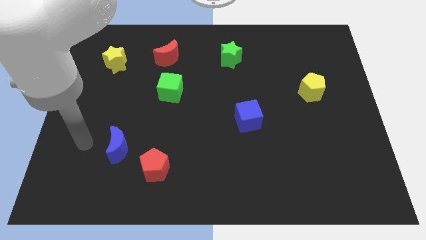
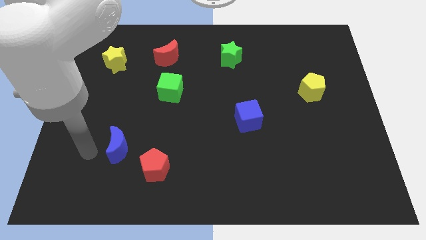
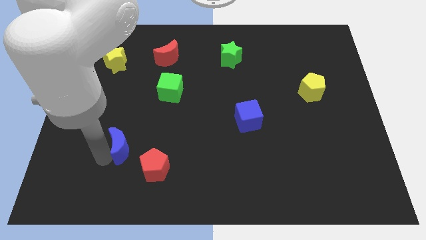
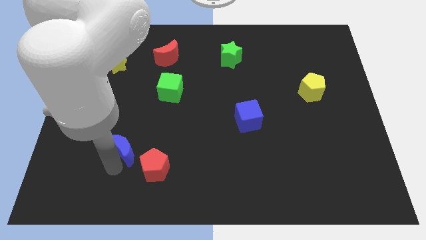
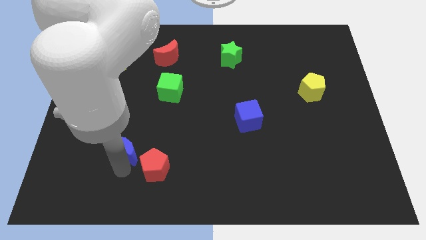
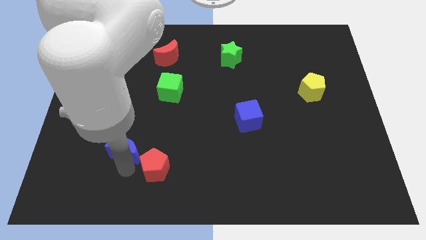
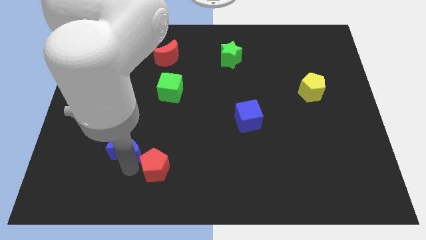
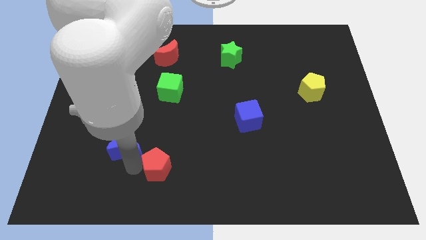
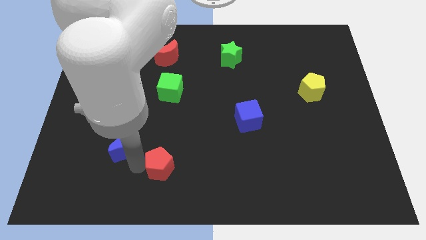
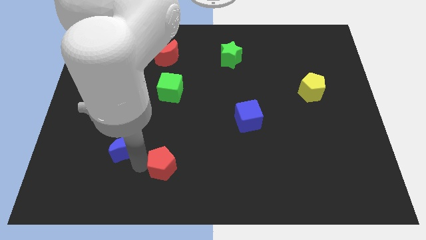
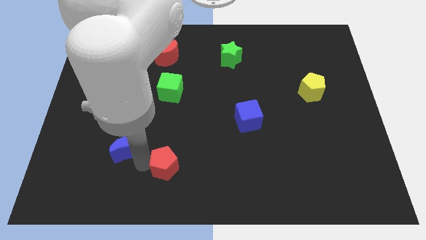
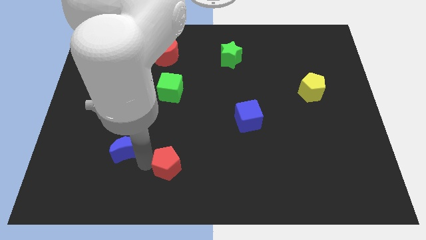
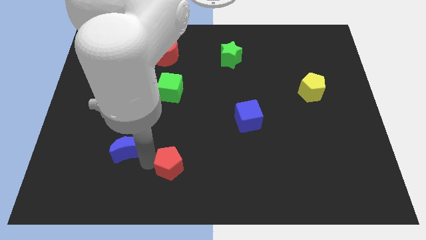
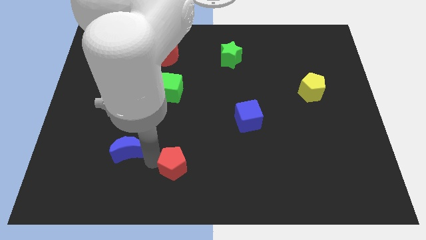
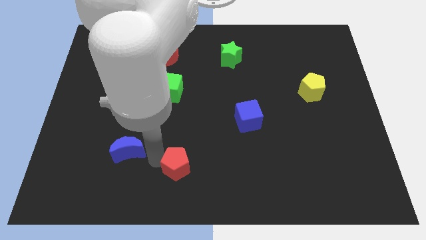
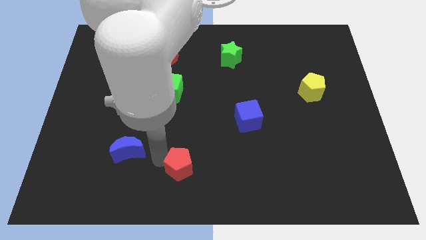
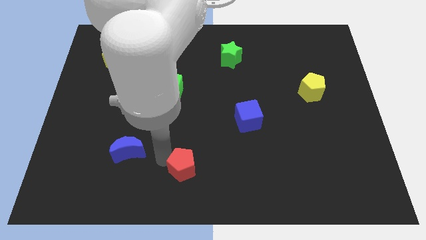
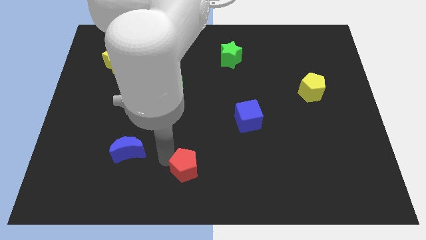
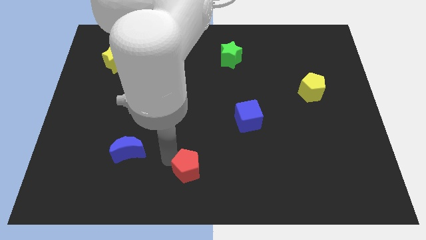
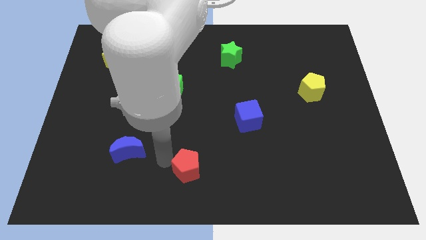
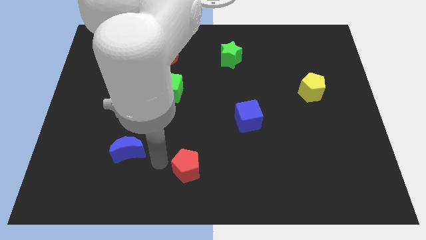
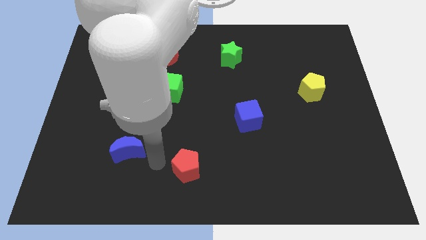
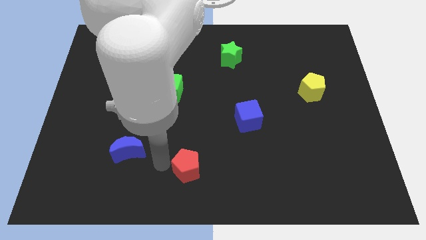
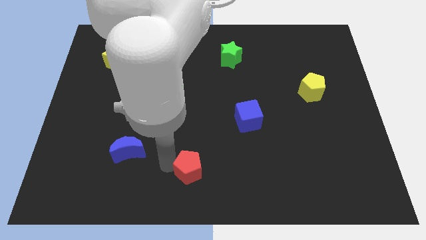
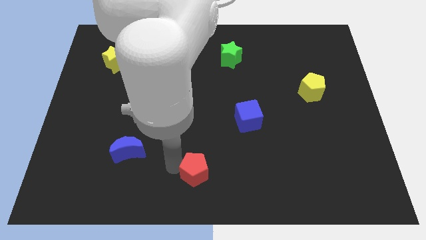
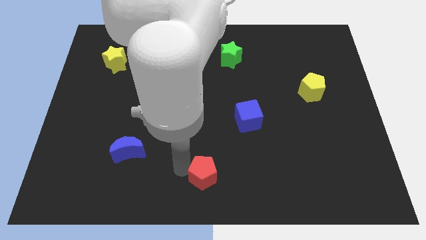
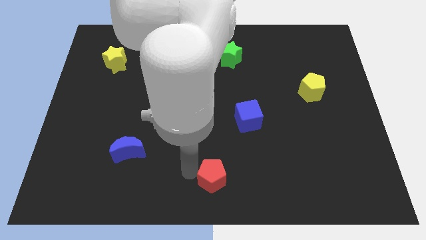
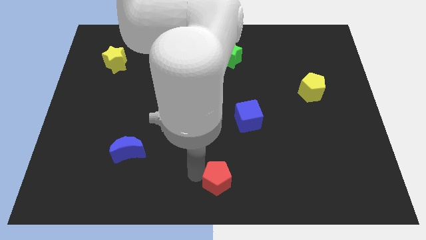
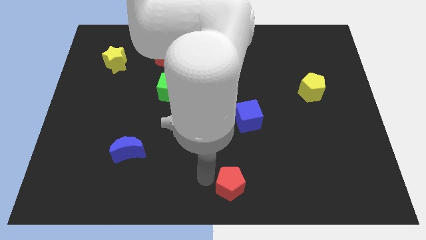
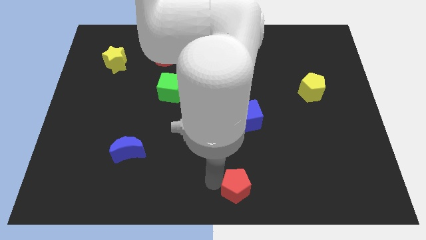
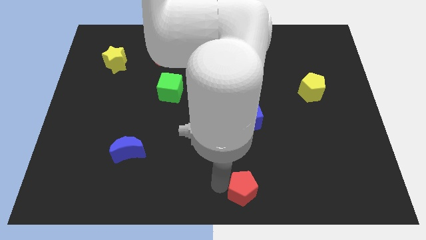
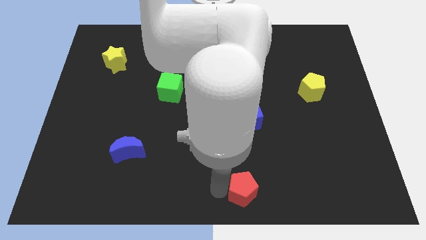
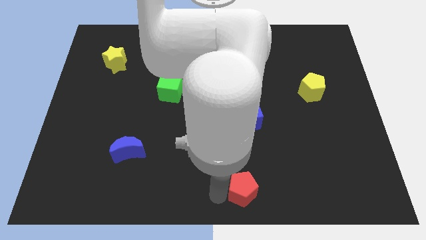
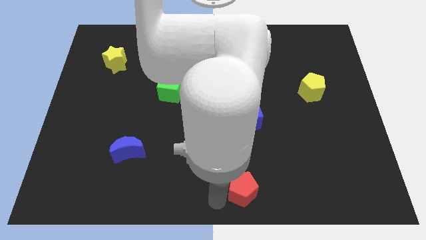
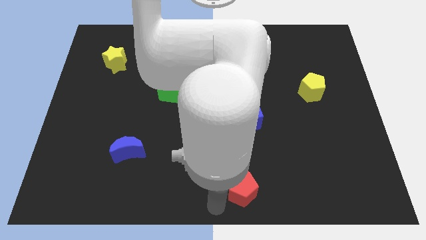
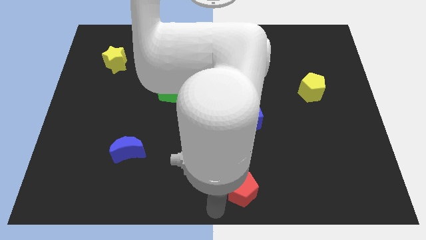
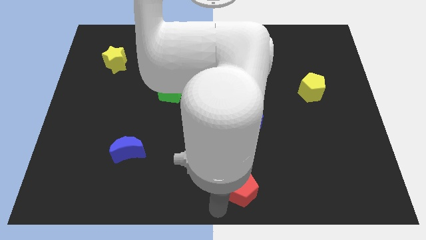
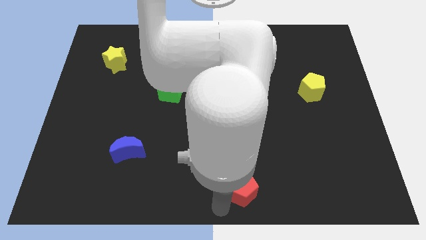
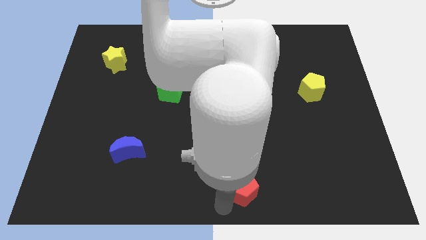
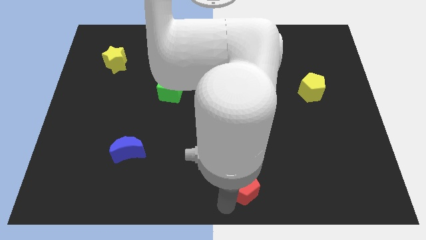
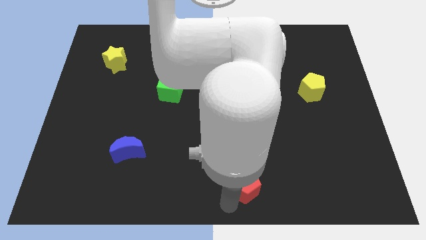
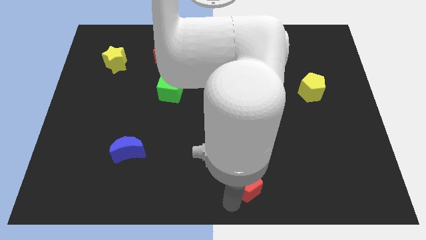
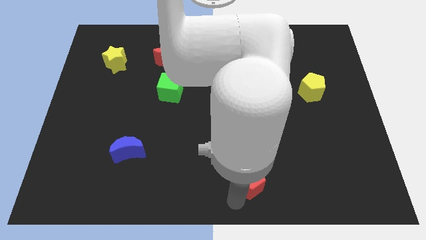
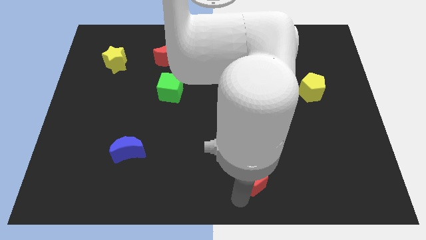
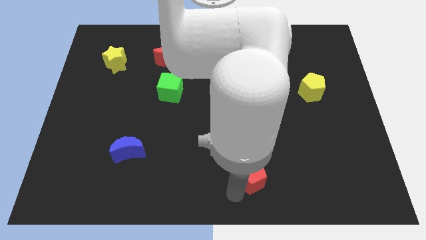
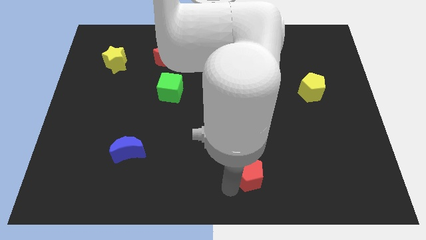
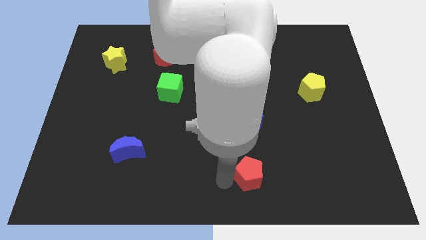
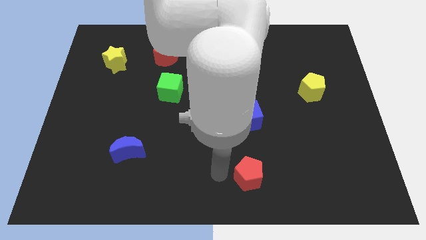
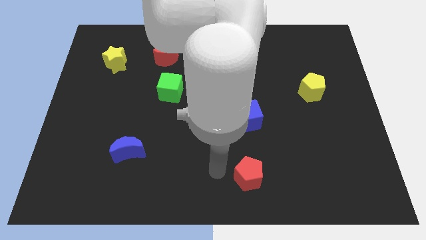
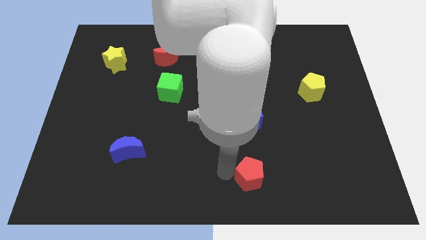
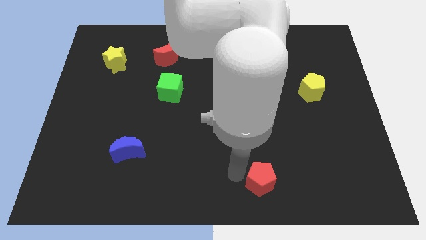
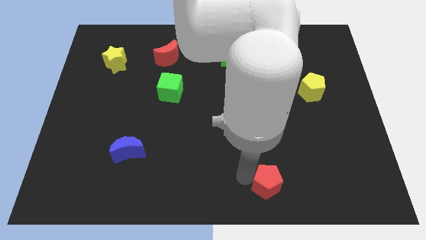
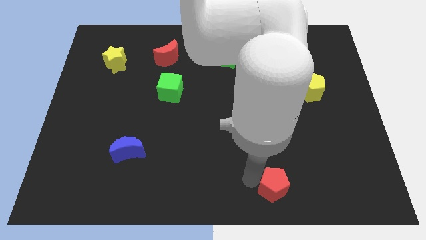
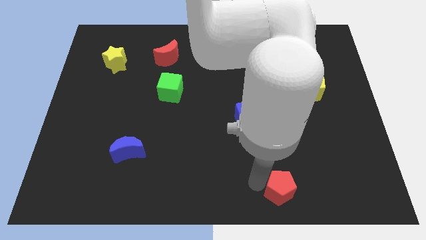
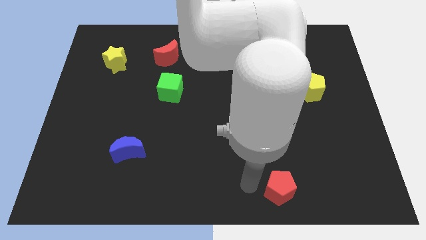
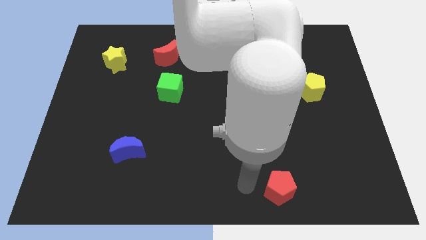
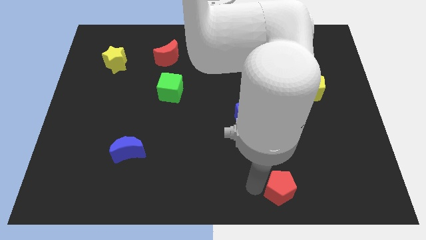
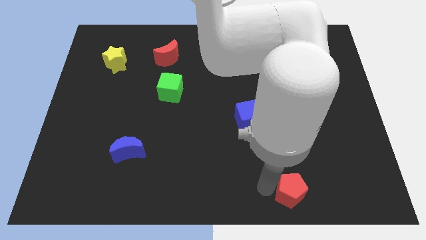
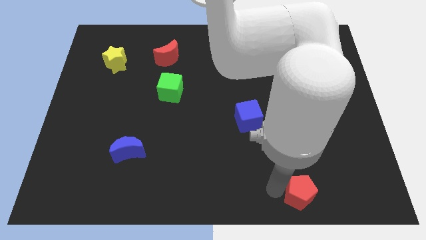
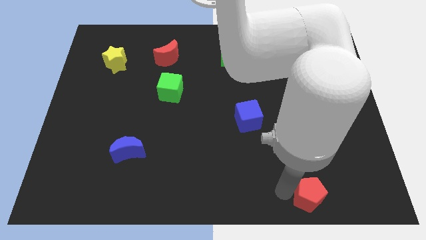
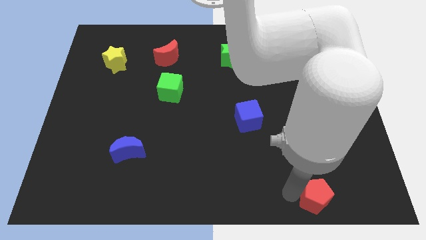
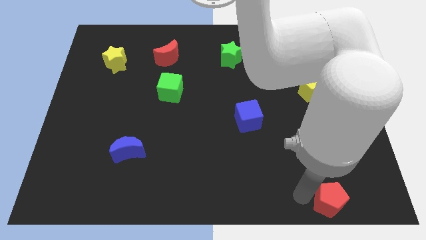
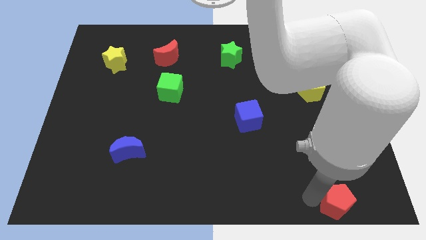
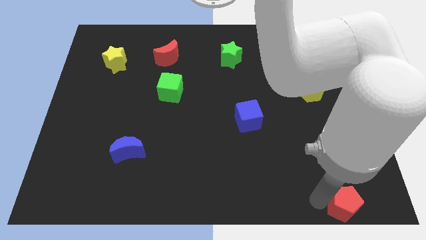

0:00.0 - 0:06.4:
put the red pentagon to the bottom right corner

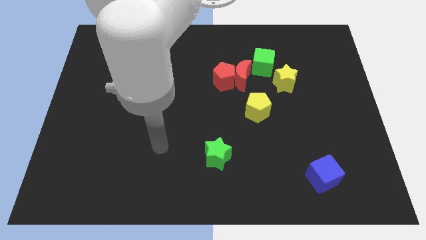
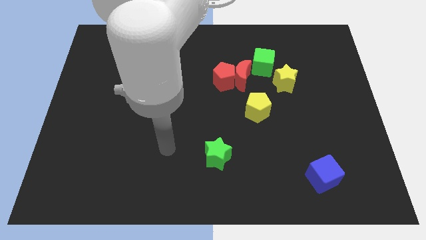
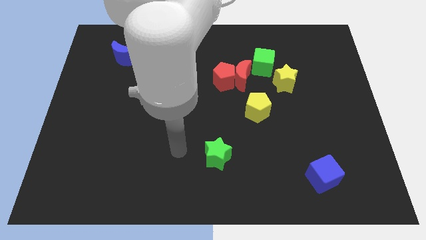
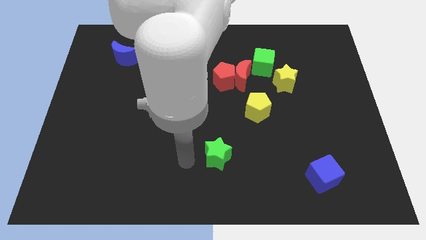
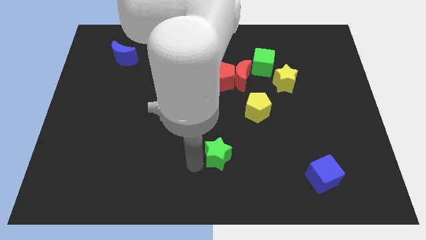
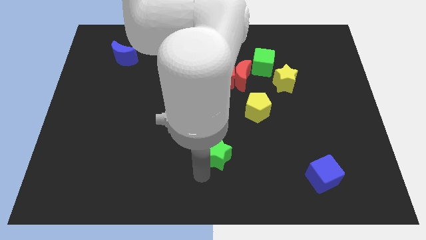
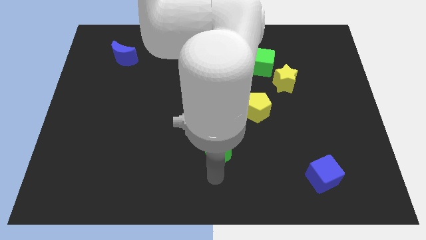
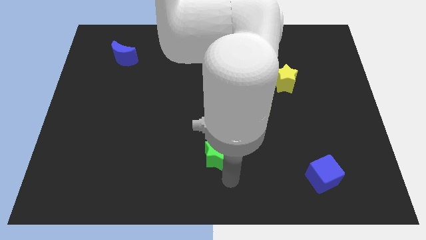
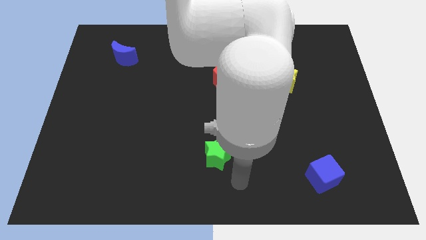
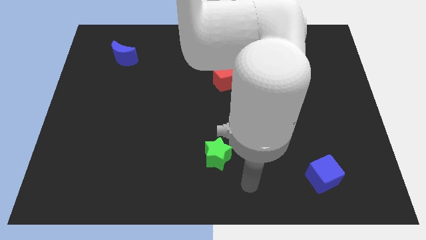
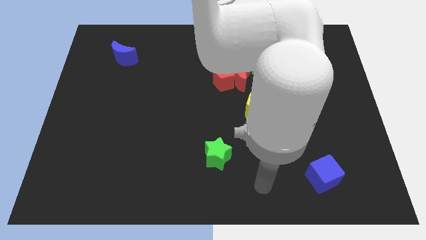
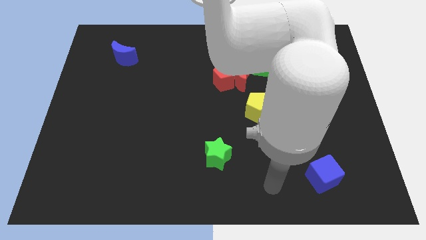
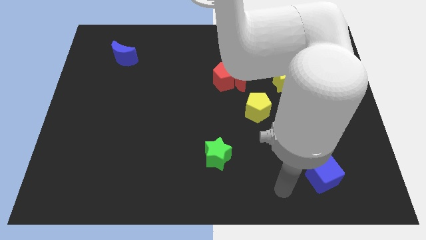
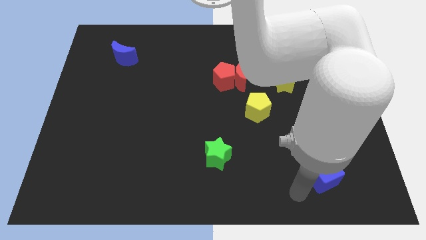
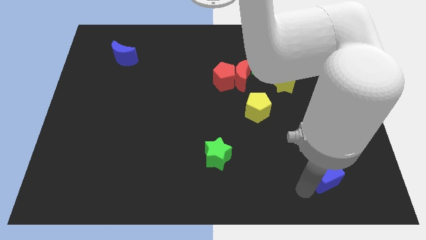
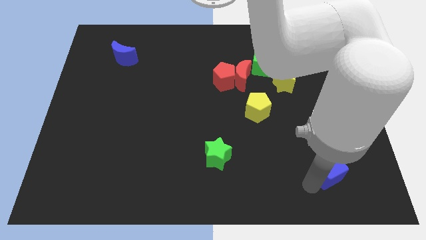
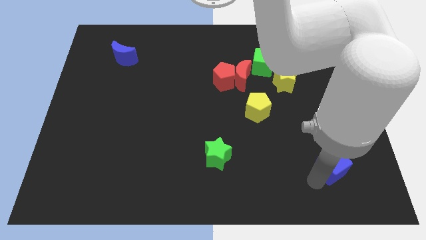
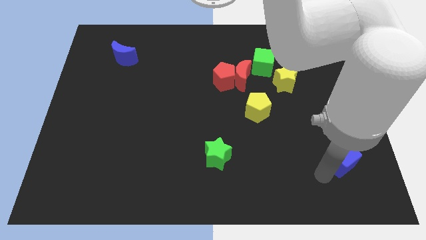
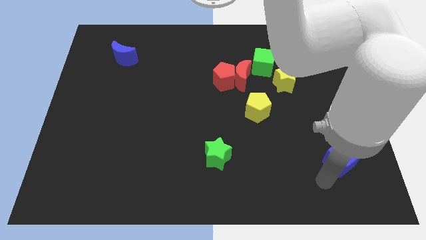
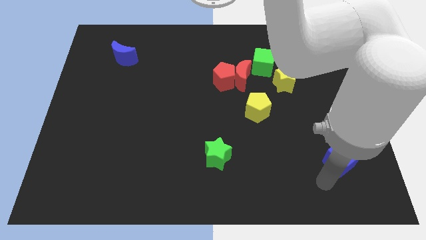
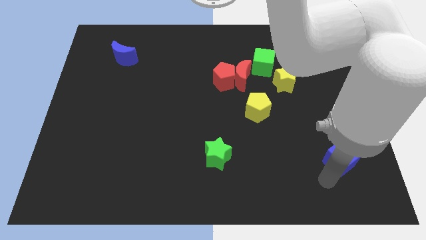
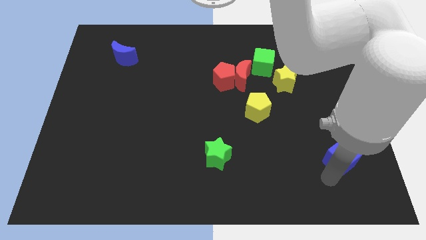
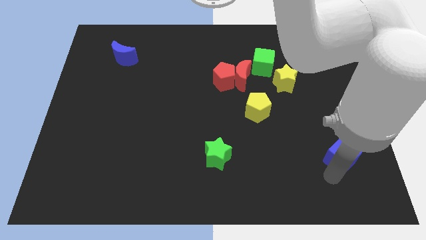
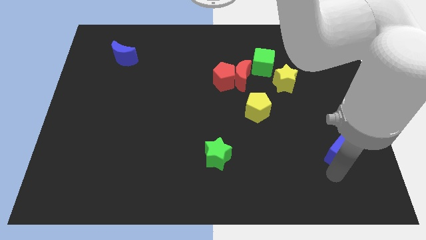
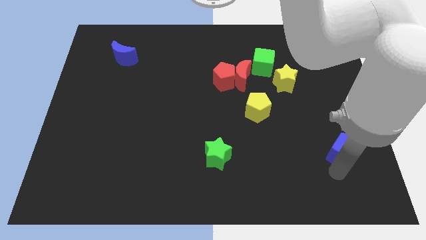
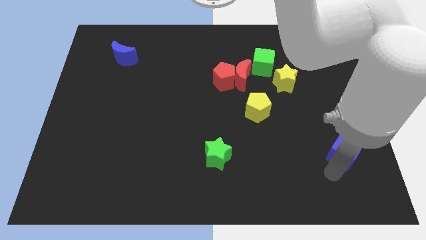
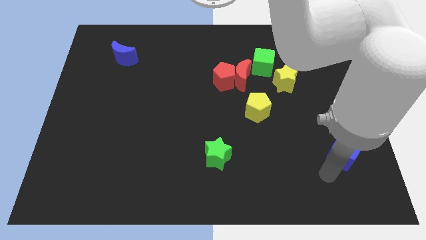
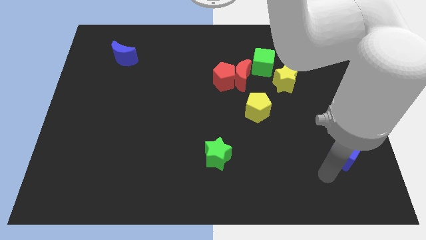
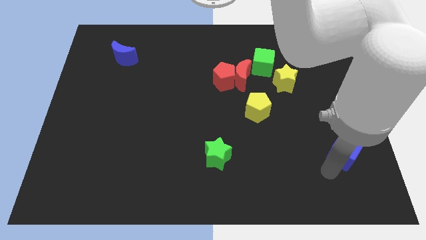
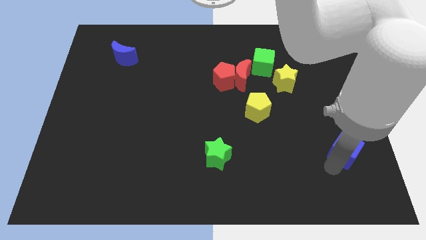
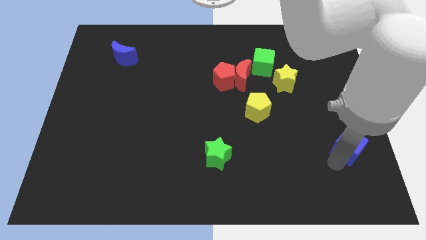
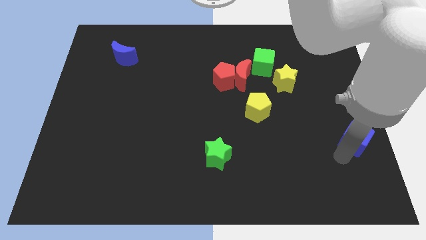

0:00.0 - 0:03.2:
put the blue cube to the center right
